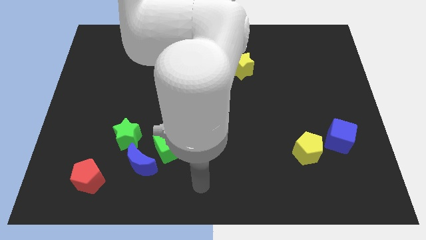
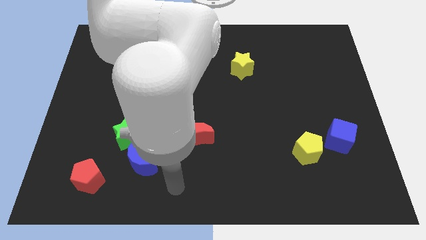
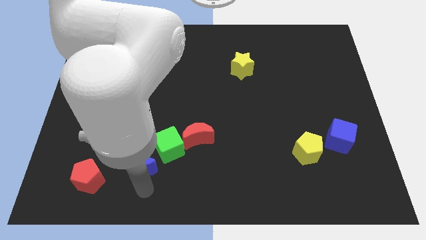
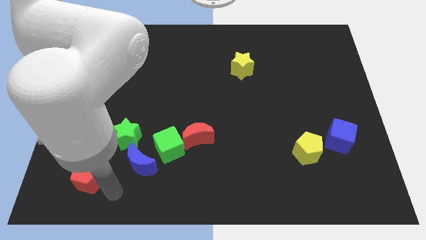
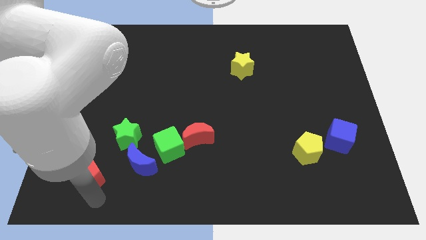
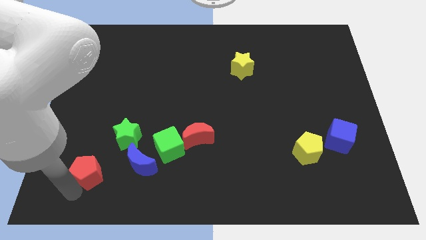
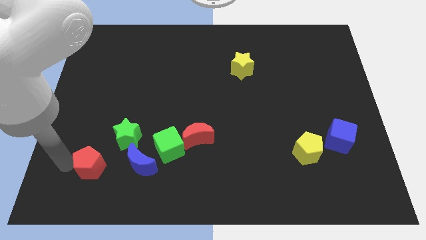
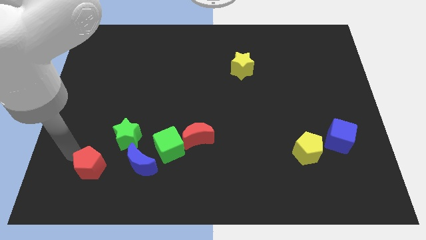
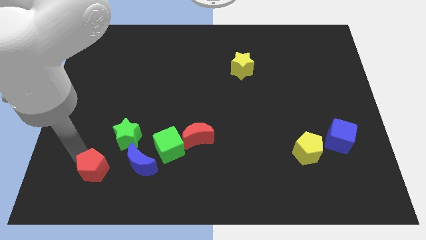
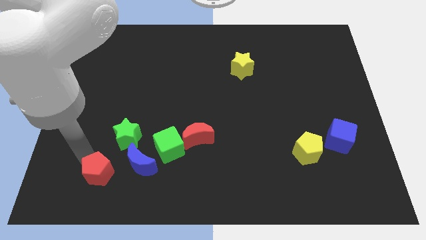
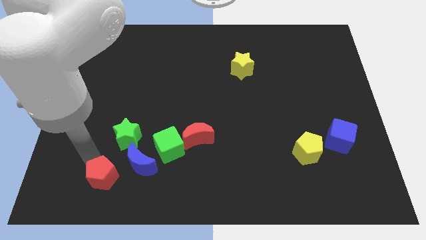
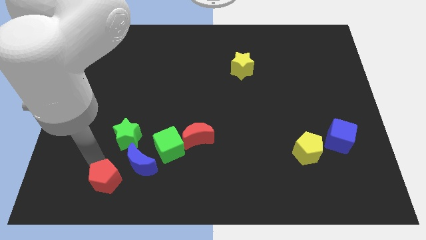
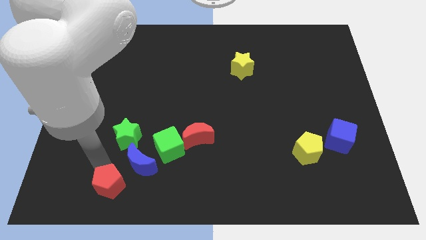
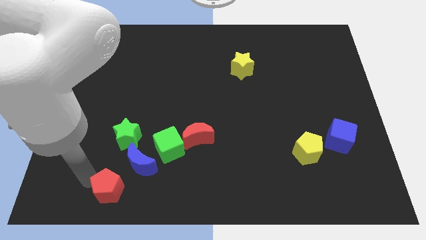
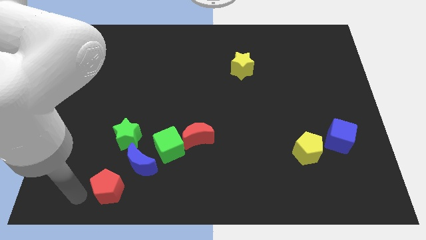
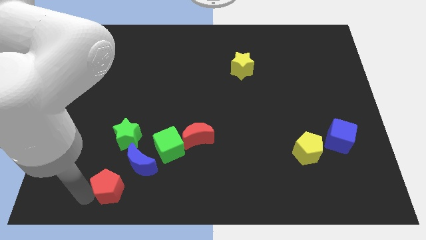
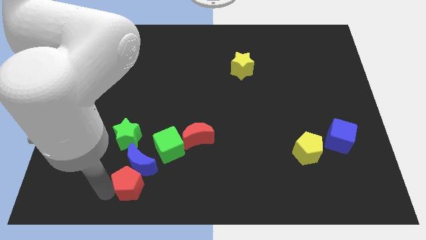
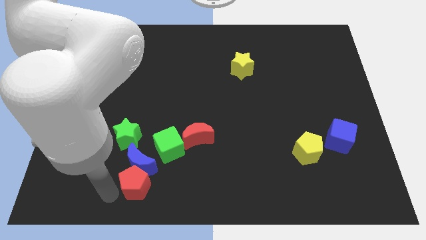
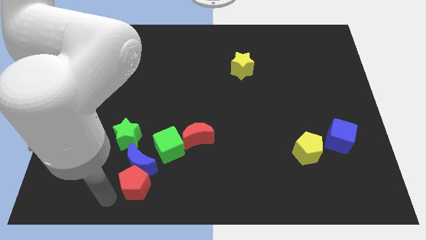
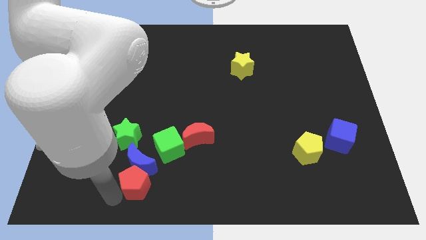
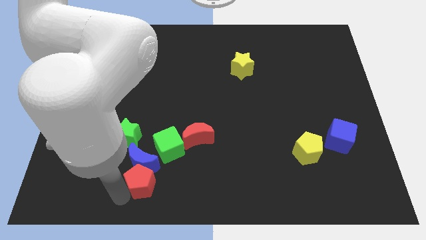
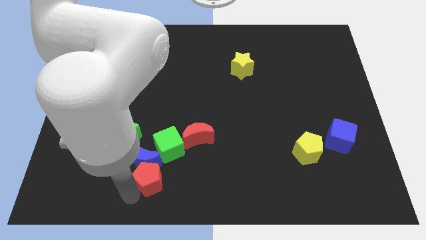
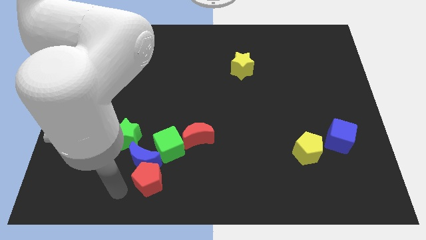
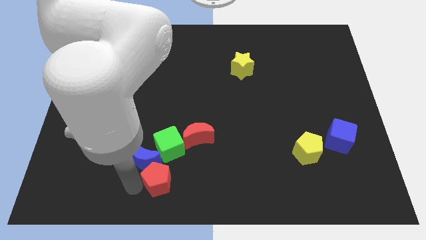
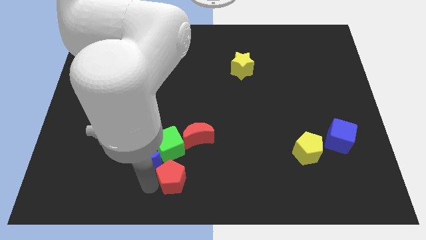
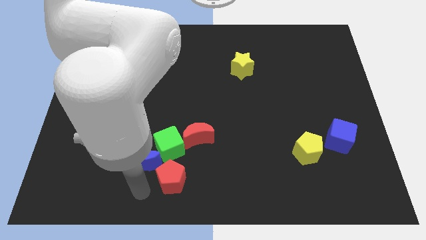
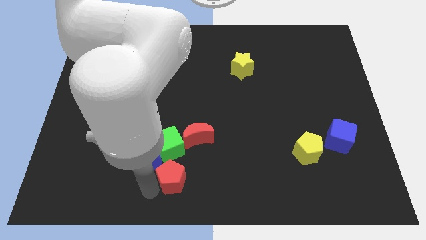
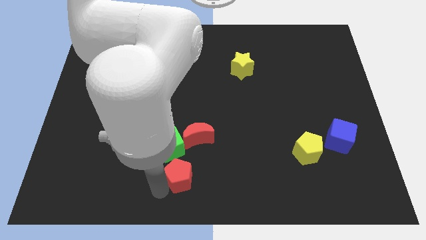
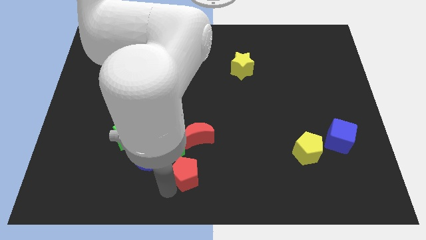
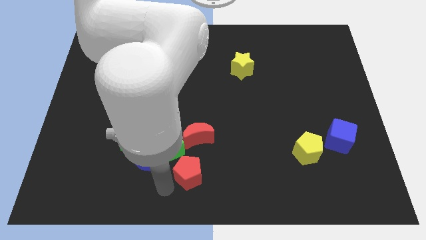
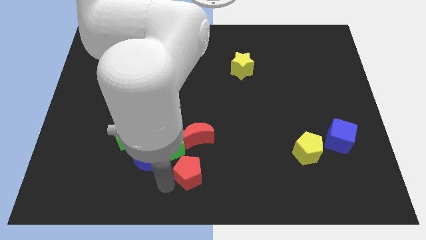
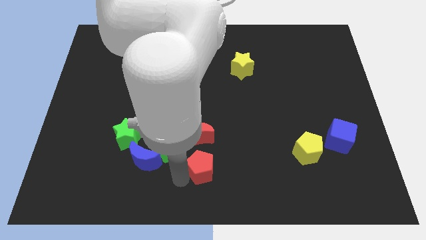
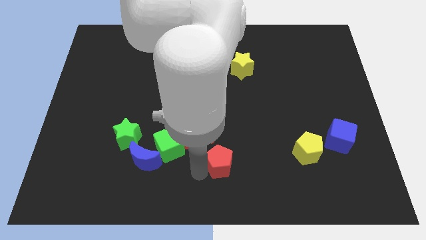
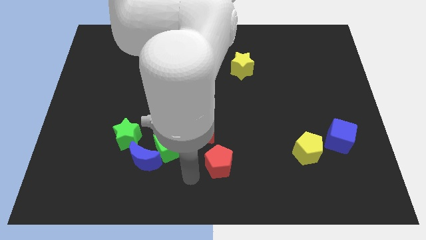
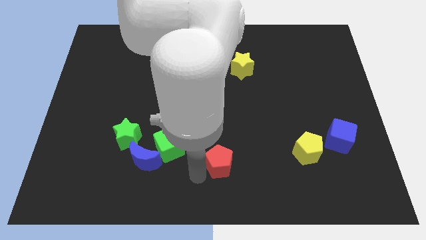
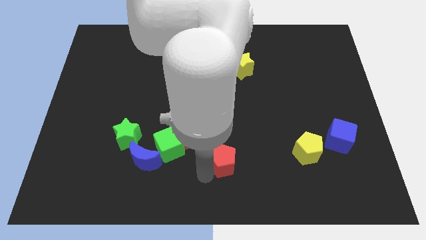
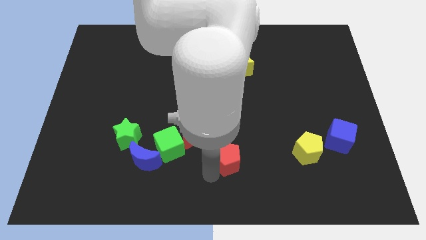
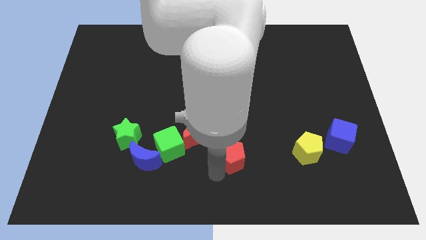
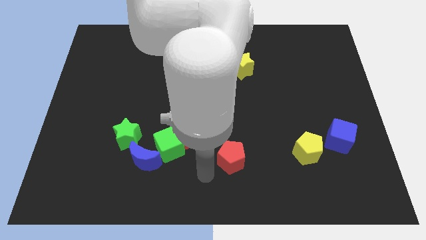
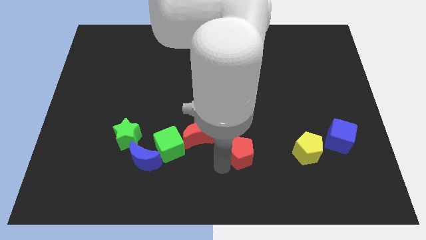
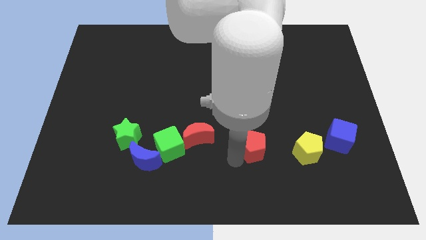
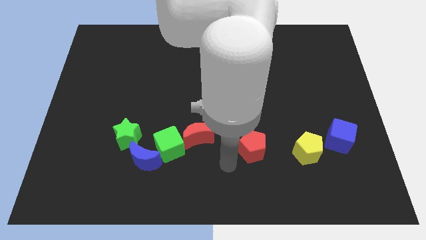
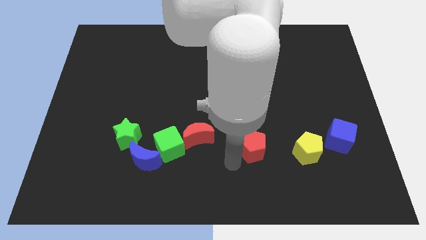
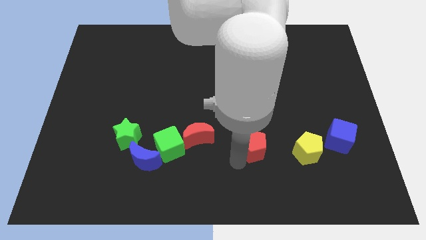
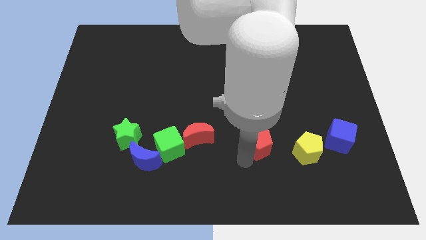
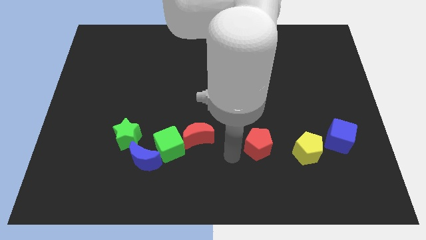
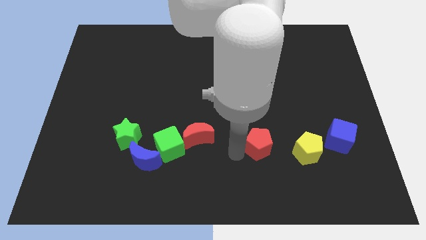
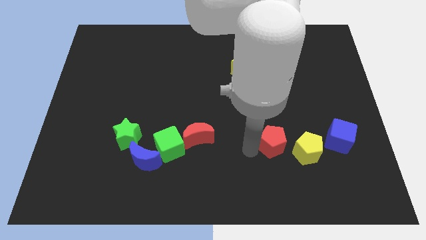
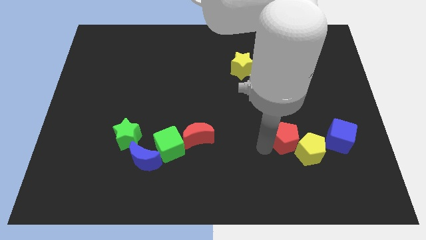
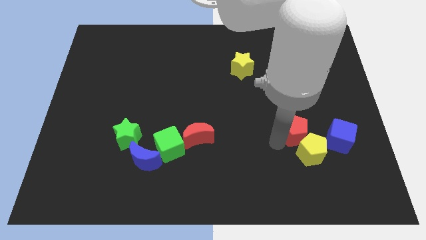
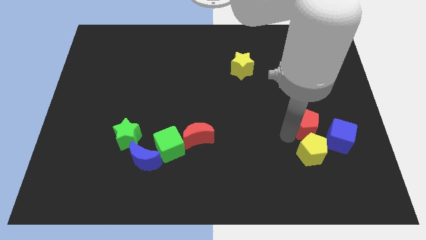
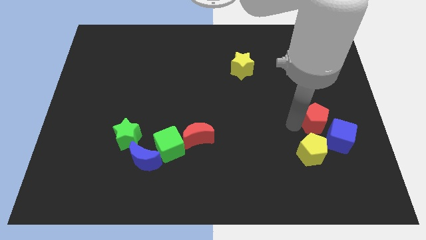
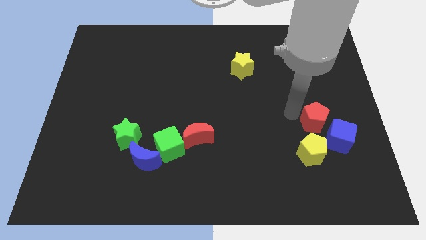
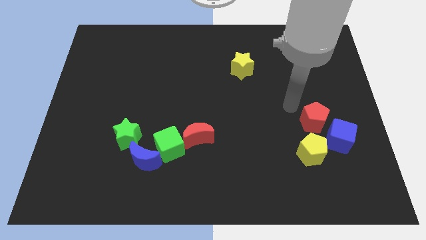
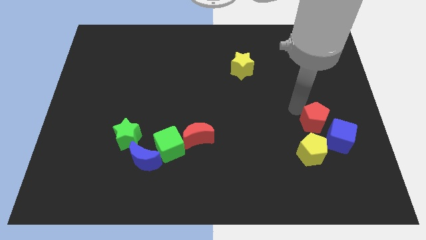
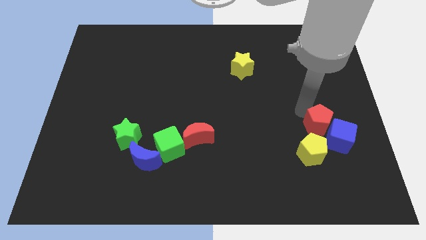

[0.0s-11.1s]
move the red pentagon towards the blue cube
